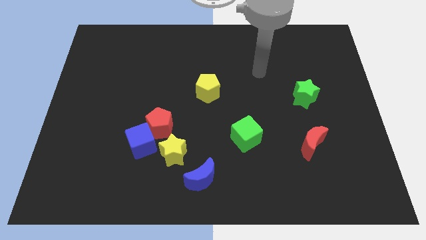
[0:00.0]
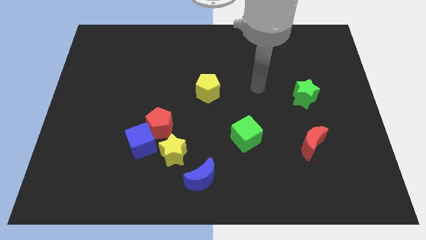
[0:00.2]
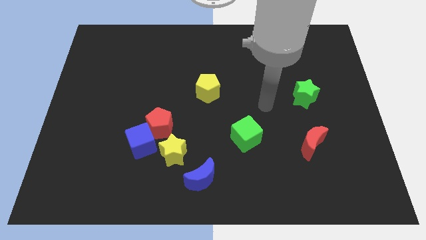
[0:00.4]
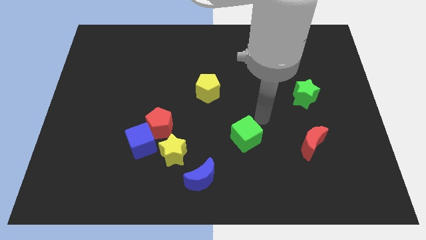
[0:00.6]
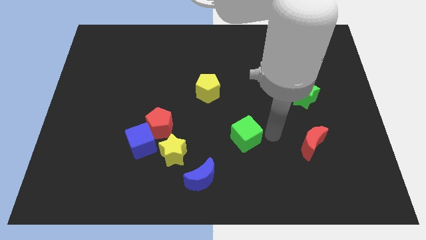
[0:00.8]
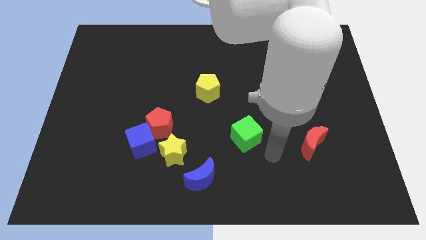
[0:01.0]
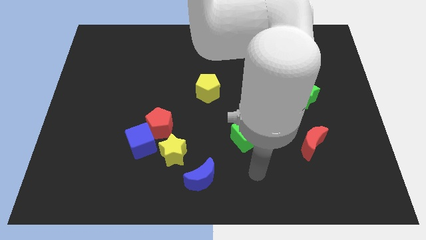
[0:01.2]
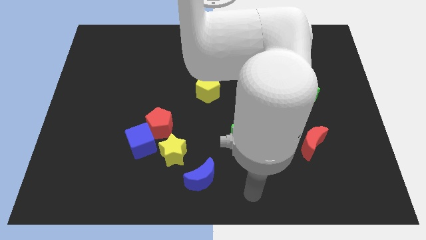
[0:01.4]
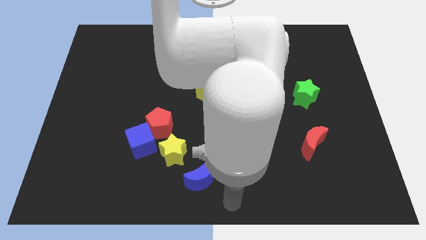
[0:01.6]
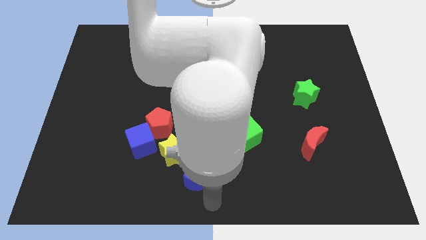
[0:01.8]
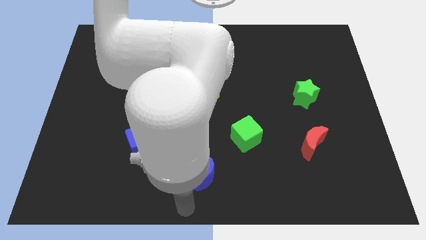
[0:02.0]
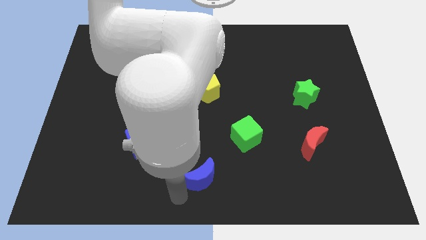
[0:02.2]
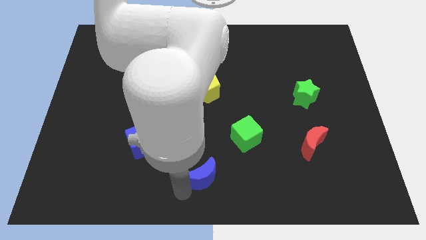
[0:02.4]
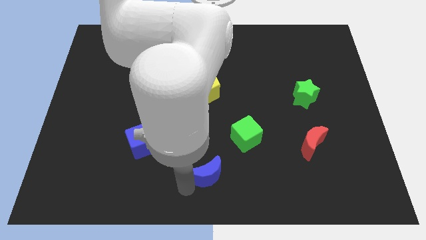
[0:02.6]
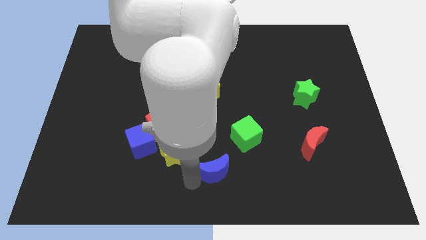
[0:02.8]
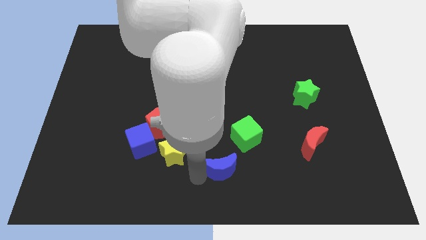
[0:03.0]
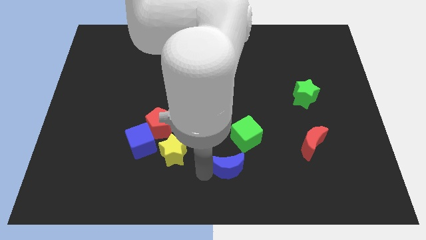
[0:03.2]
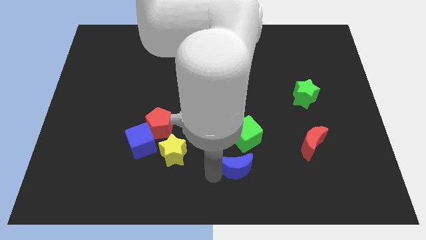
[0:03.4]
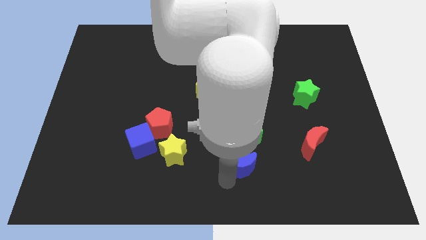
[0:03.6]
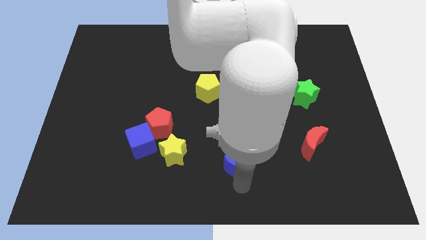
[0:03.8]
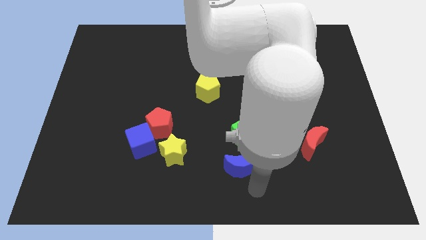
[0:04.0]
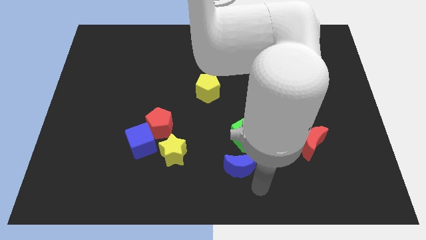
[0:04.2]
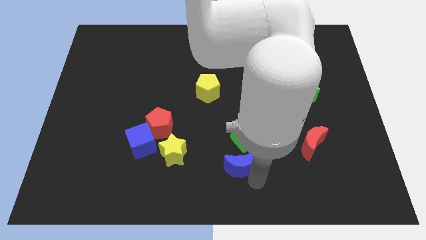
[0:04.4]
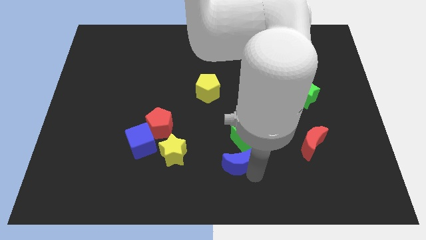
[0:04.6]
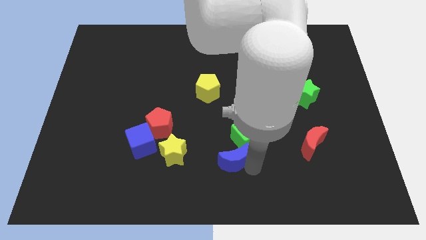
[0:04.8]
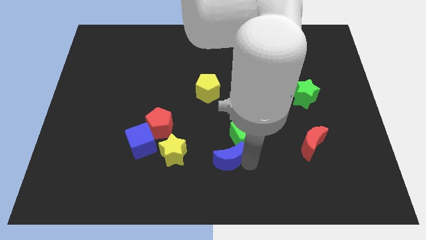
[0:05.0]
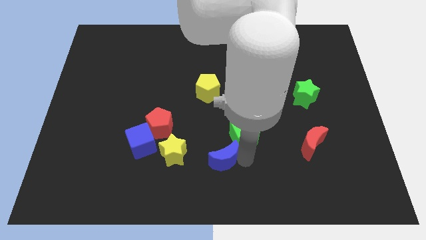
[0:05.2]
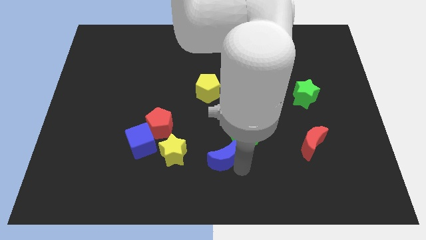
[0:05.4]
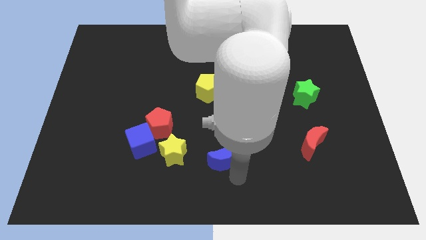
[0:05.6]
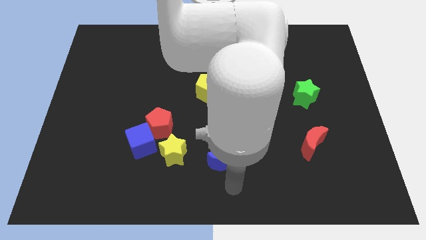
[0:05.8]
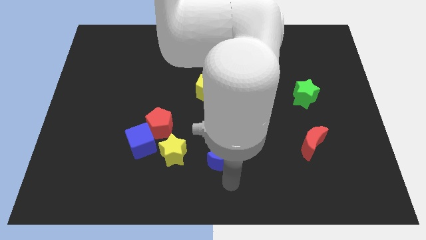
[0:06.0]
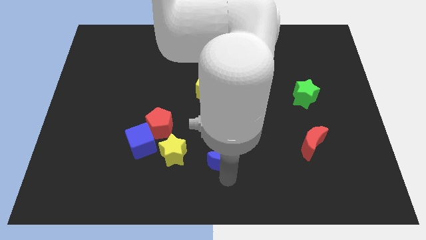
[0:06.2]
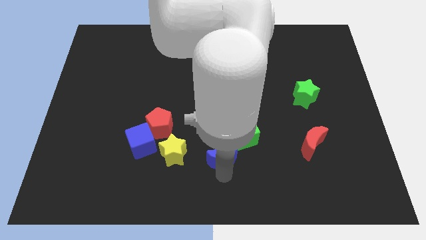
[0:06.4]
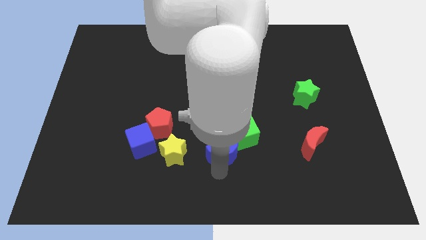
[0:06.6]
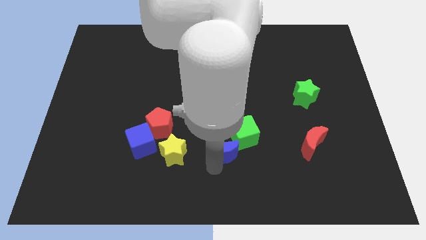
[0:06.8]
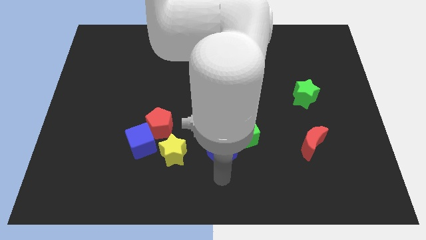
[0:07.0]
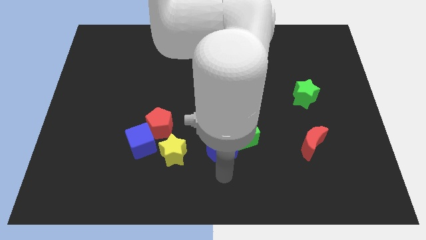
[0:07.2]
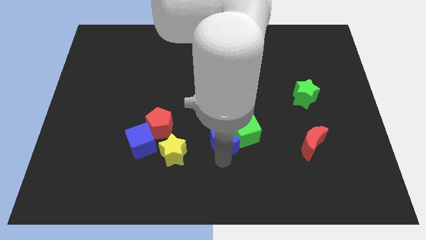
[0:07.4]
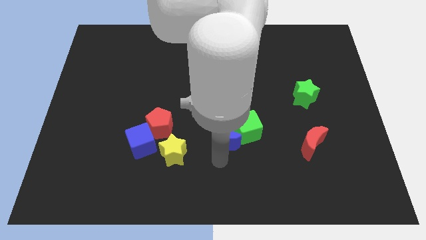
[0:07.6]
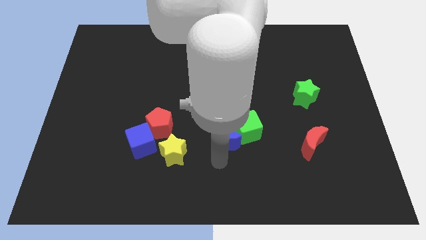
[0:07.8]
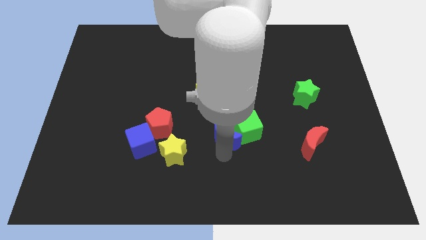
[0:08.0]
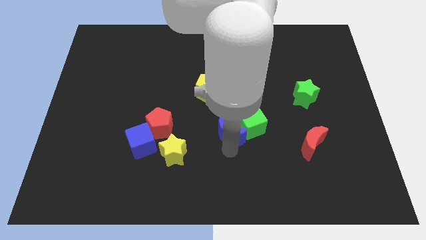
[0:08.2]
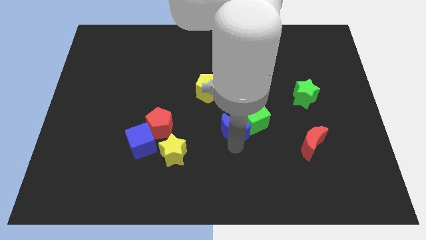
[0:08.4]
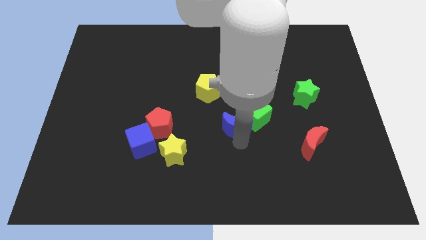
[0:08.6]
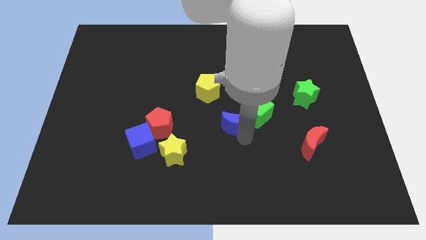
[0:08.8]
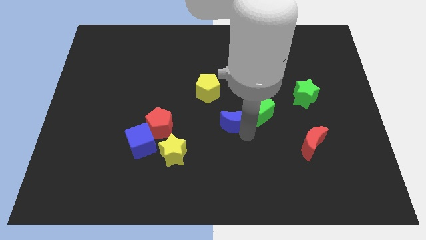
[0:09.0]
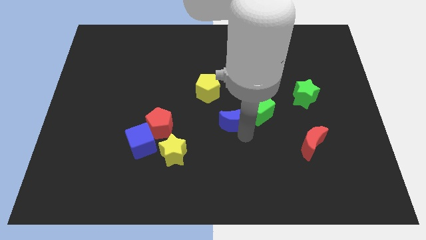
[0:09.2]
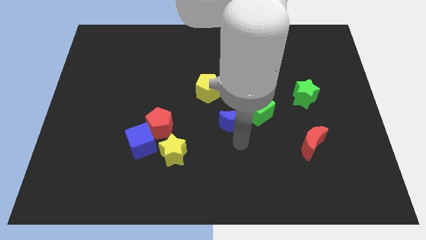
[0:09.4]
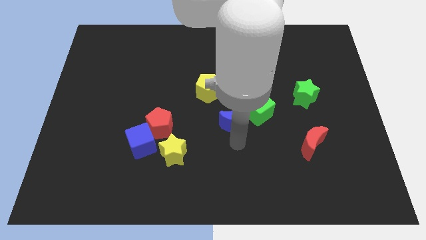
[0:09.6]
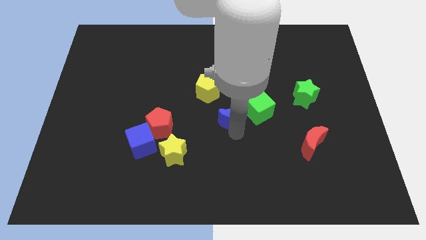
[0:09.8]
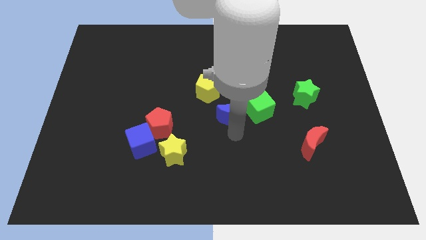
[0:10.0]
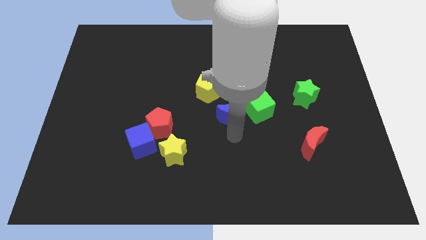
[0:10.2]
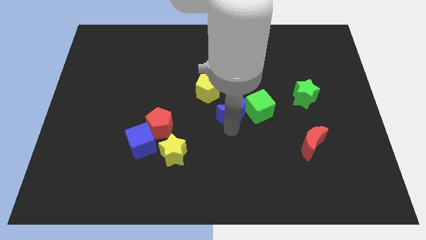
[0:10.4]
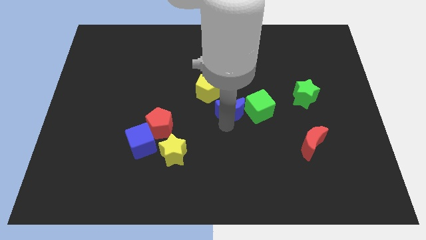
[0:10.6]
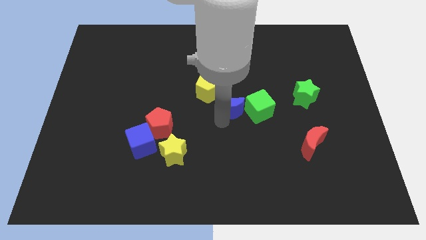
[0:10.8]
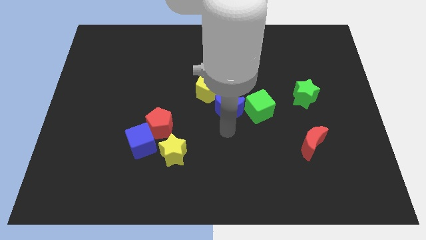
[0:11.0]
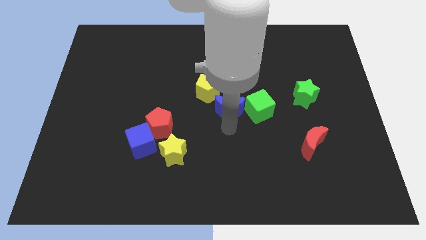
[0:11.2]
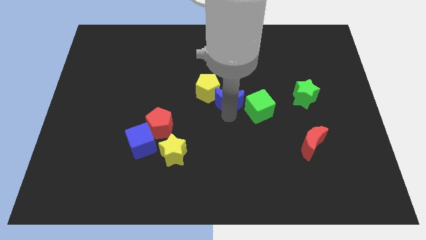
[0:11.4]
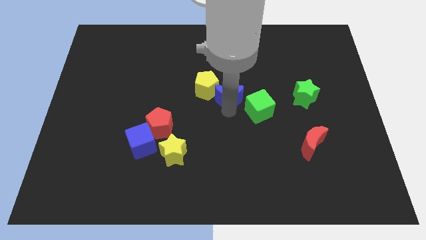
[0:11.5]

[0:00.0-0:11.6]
push the blue moon up

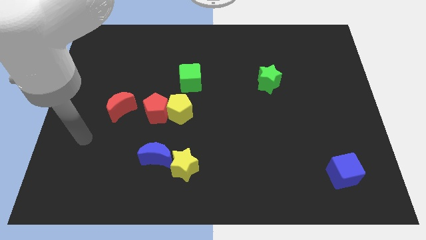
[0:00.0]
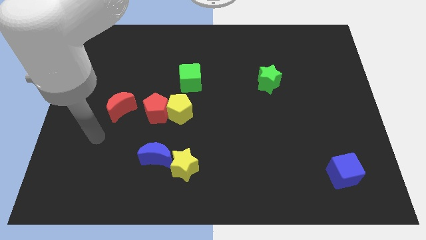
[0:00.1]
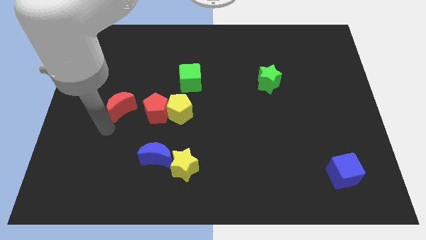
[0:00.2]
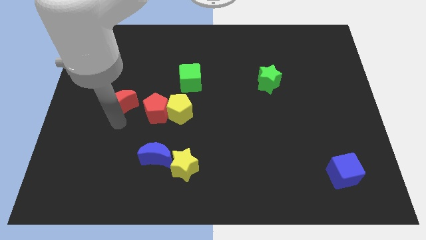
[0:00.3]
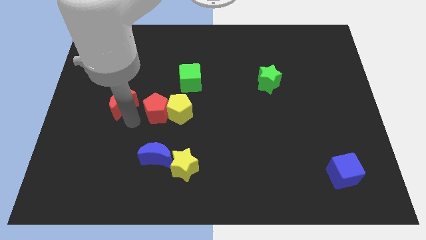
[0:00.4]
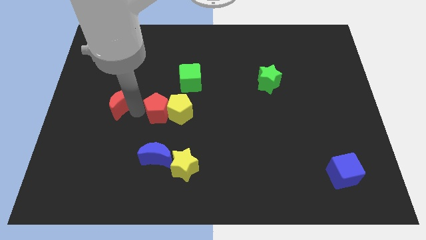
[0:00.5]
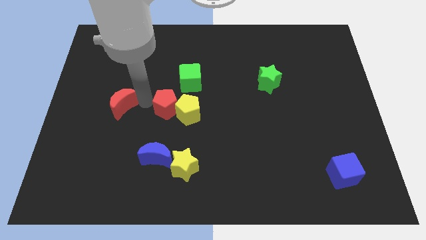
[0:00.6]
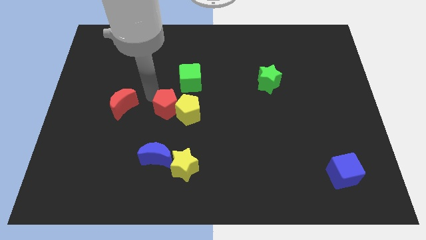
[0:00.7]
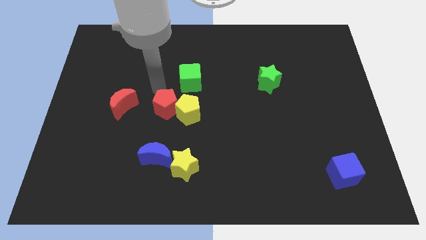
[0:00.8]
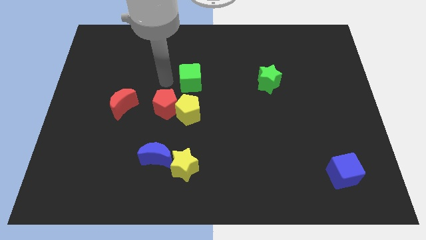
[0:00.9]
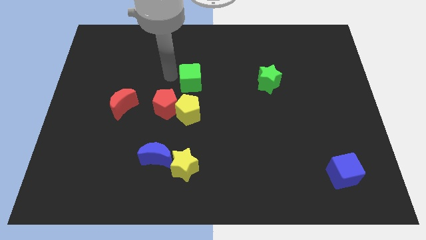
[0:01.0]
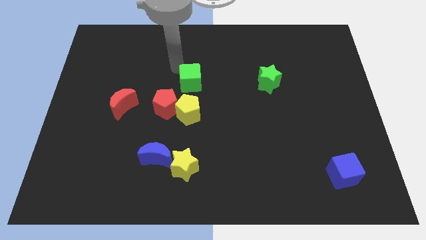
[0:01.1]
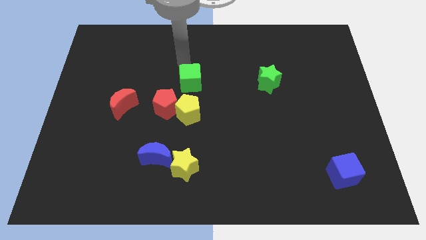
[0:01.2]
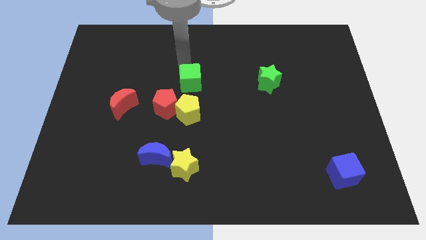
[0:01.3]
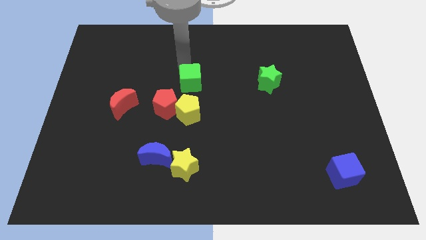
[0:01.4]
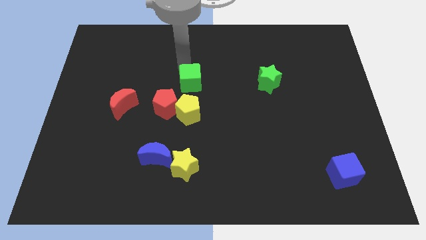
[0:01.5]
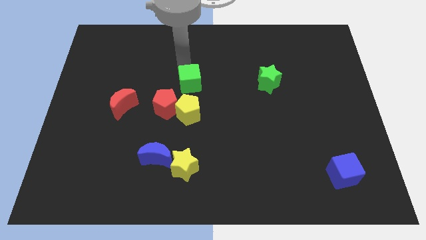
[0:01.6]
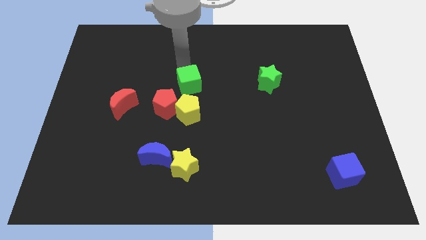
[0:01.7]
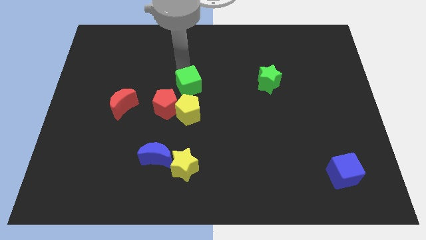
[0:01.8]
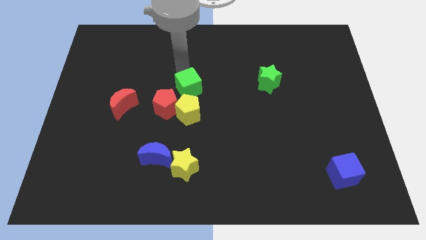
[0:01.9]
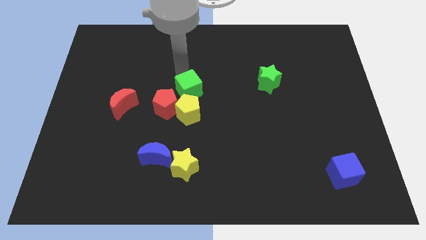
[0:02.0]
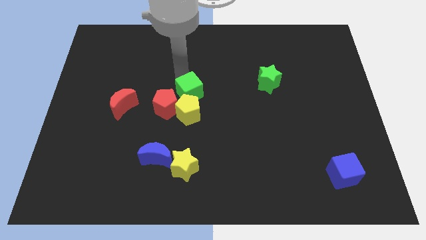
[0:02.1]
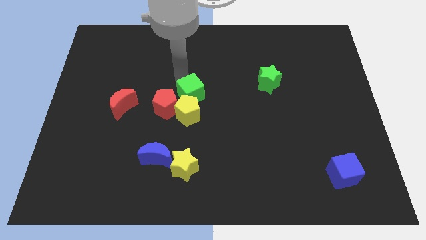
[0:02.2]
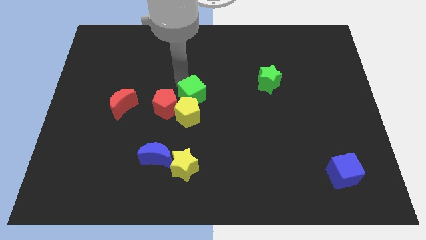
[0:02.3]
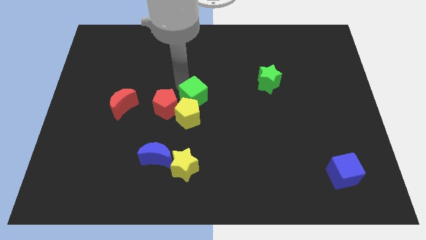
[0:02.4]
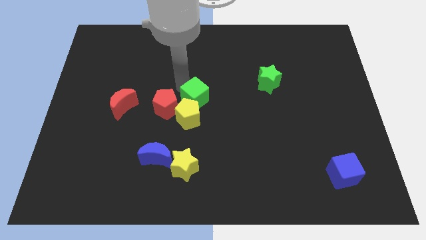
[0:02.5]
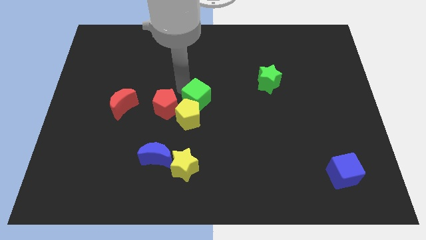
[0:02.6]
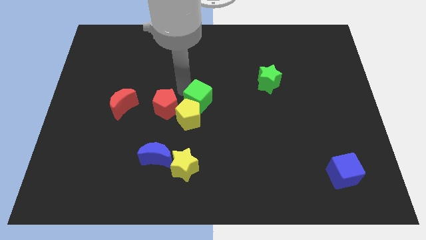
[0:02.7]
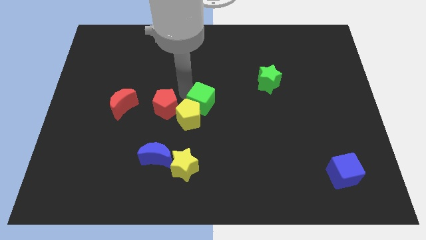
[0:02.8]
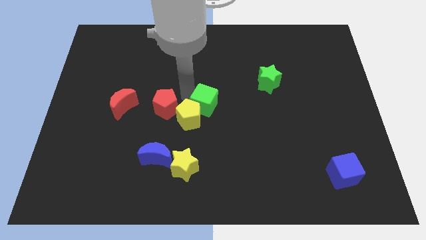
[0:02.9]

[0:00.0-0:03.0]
move the green cube a little downwards and to the right
